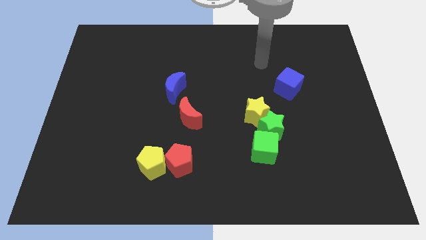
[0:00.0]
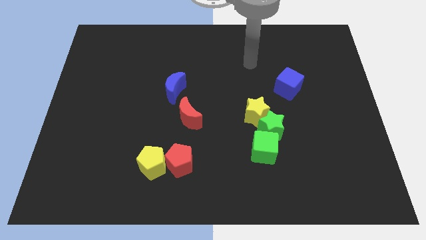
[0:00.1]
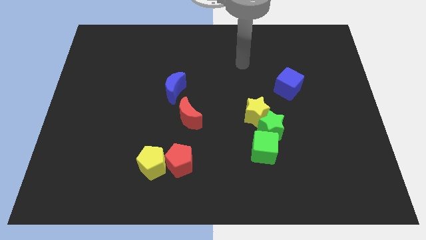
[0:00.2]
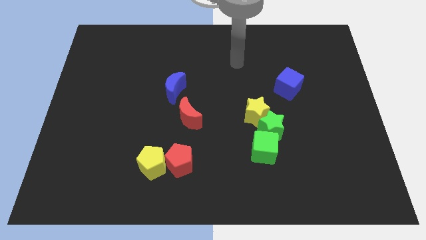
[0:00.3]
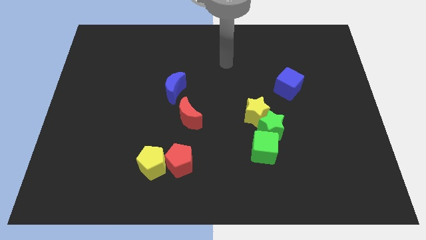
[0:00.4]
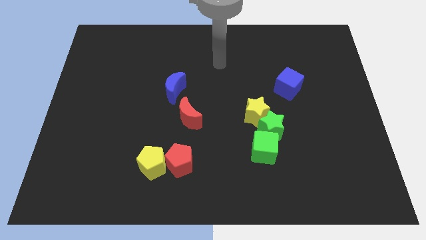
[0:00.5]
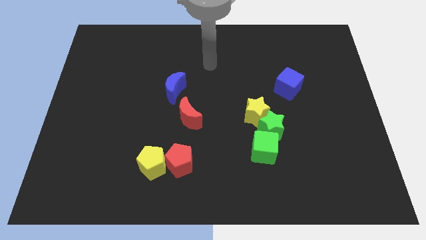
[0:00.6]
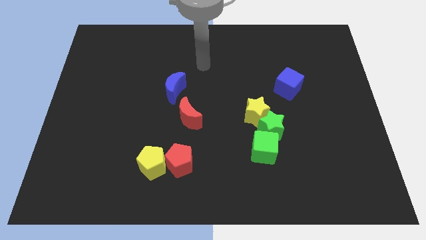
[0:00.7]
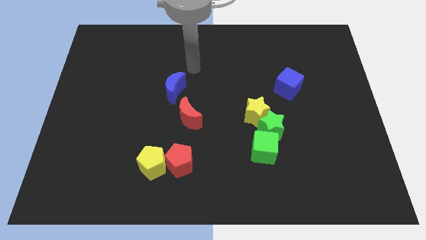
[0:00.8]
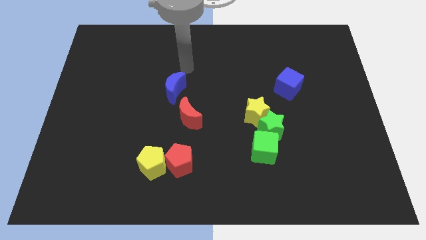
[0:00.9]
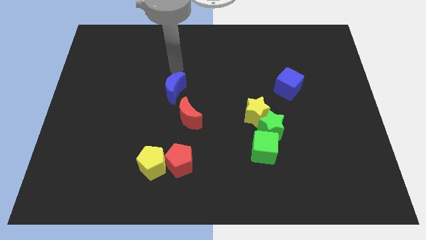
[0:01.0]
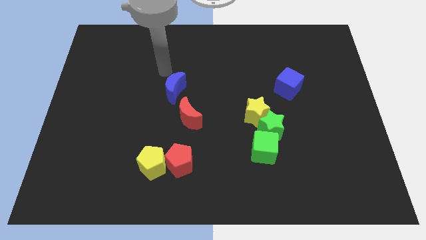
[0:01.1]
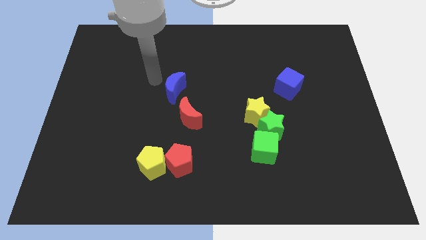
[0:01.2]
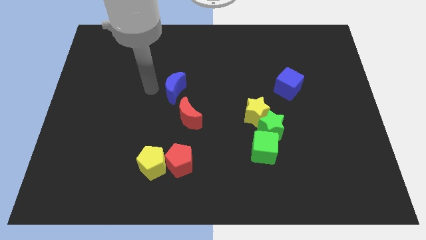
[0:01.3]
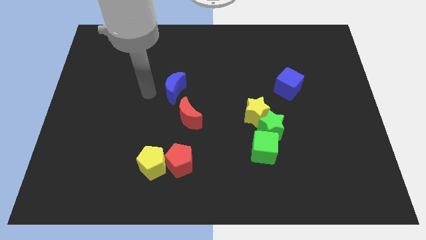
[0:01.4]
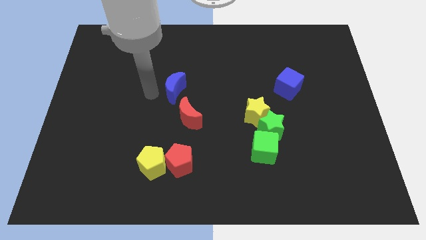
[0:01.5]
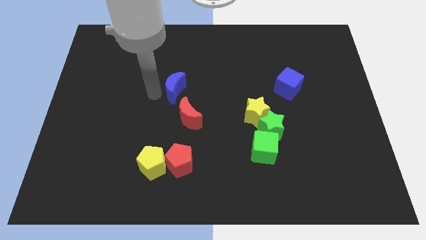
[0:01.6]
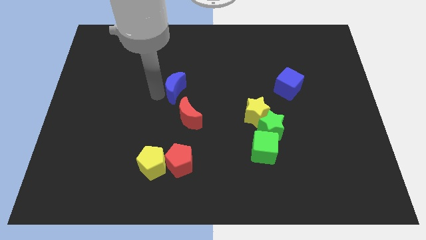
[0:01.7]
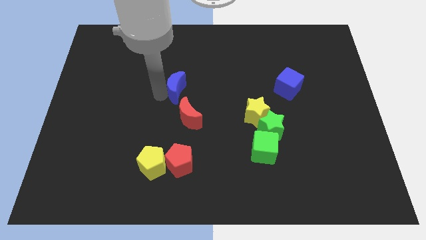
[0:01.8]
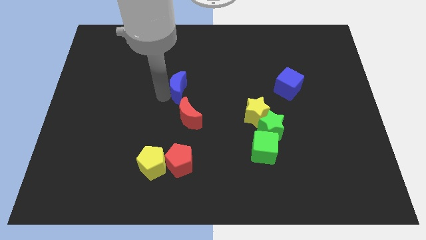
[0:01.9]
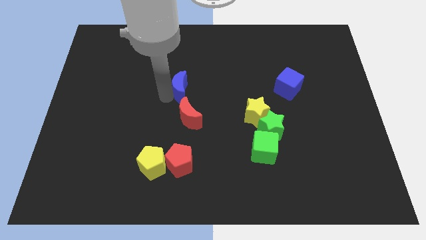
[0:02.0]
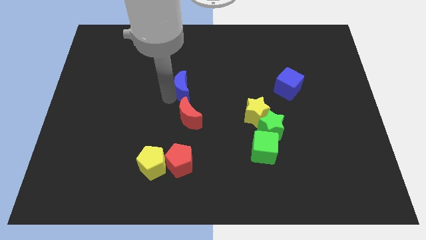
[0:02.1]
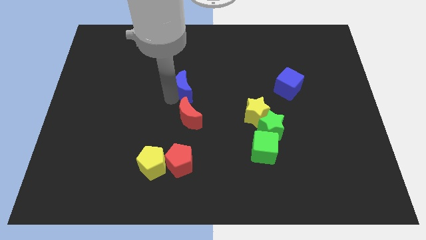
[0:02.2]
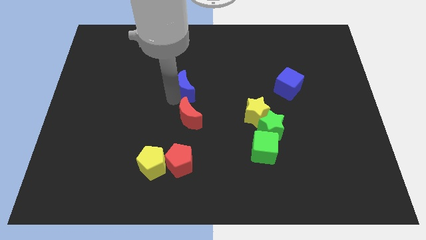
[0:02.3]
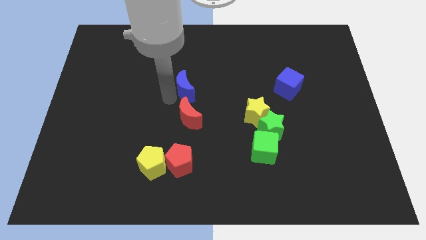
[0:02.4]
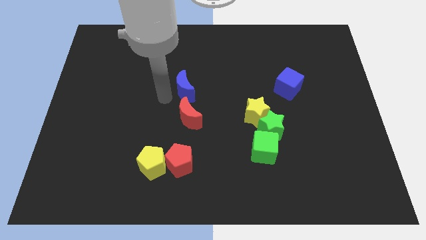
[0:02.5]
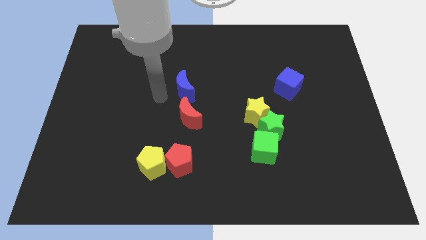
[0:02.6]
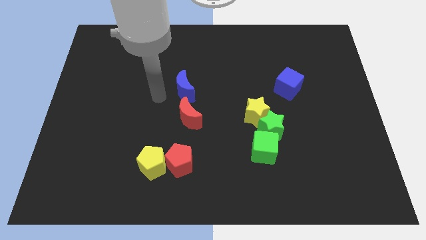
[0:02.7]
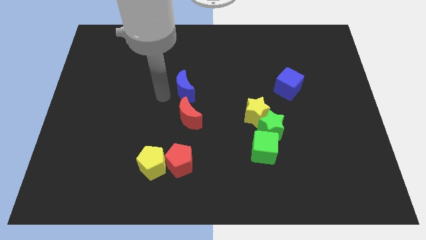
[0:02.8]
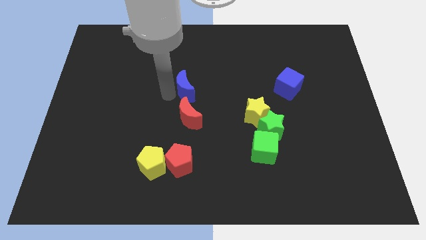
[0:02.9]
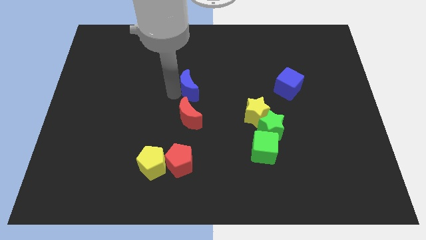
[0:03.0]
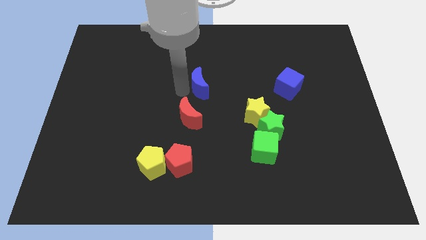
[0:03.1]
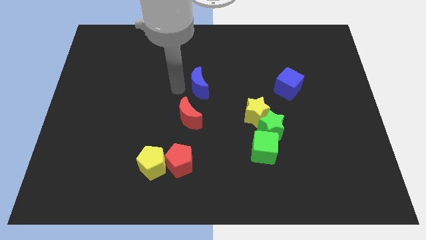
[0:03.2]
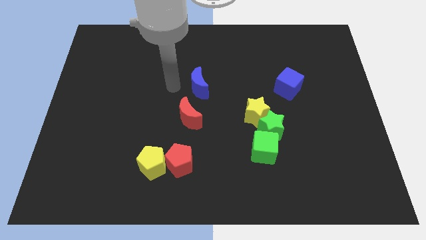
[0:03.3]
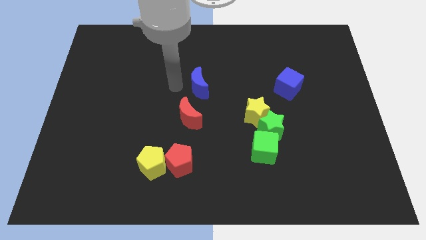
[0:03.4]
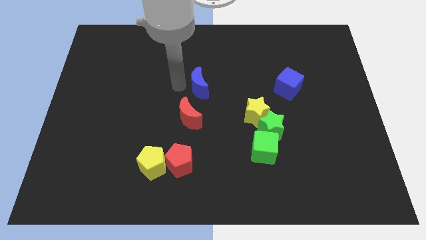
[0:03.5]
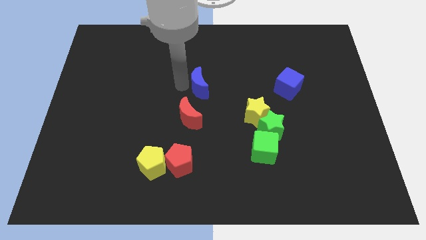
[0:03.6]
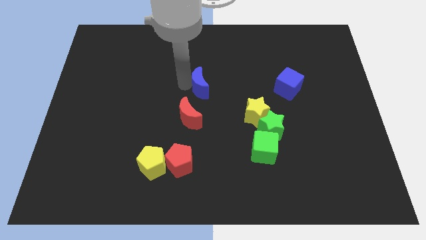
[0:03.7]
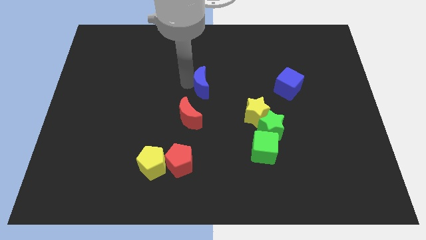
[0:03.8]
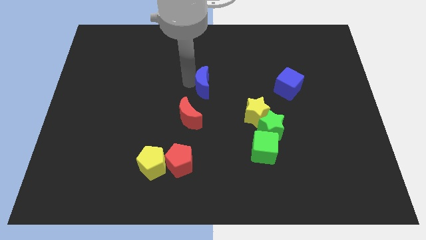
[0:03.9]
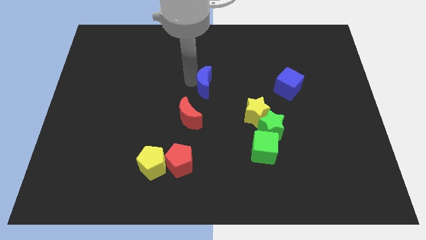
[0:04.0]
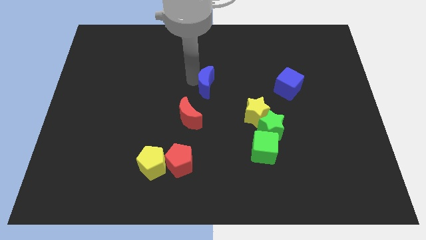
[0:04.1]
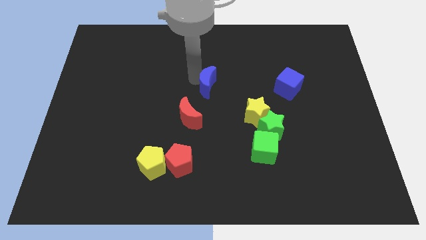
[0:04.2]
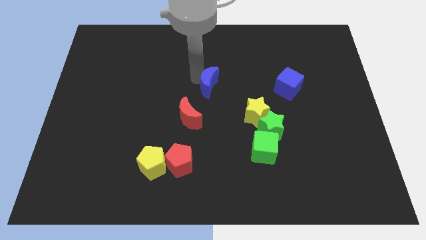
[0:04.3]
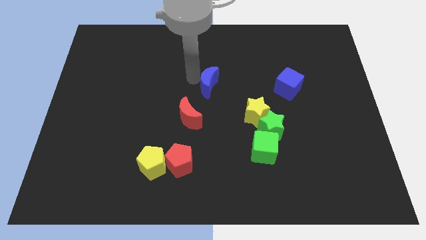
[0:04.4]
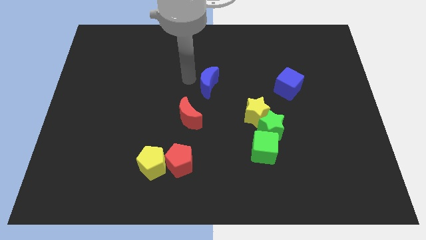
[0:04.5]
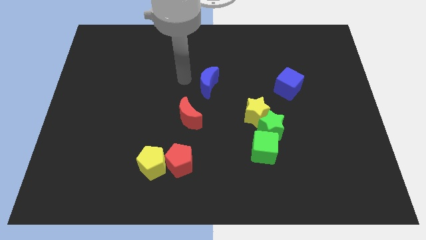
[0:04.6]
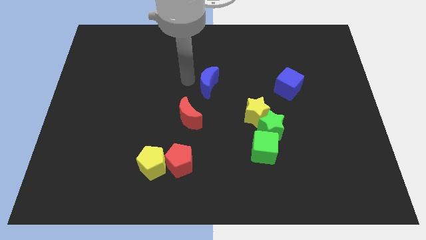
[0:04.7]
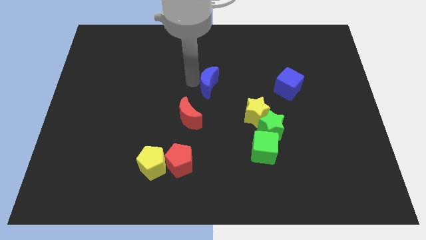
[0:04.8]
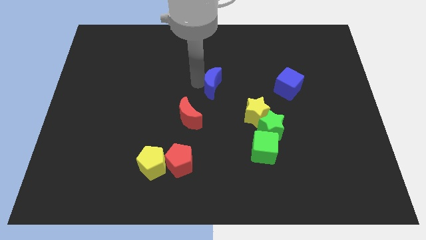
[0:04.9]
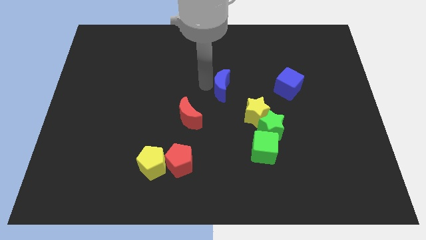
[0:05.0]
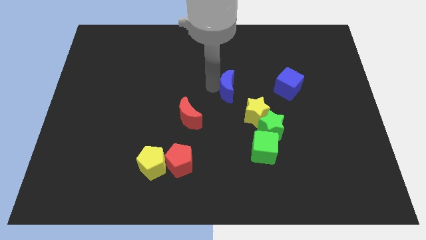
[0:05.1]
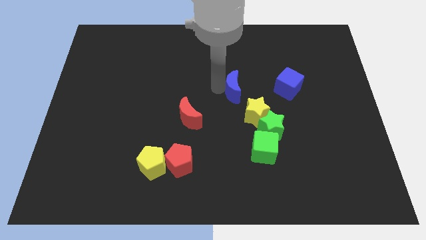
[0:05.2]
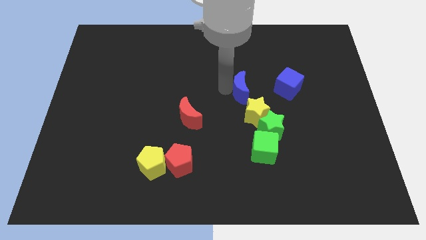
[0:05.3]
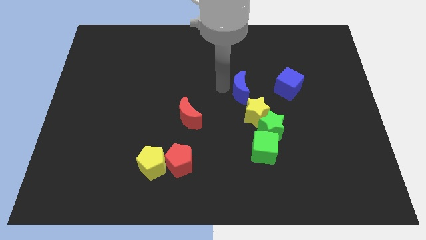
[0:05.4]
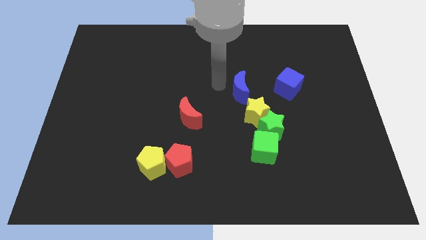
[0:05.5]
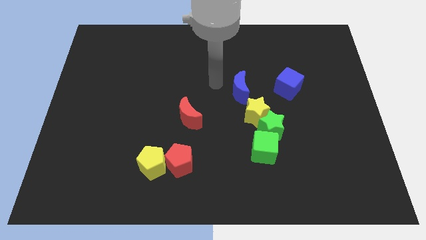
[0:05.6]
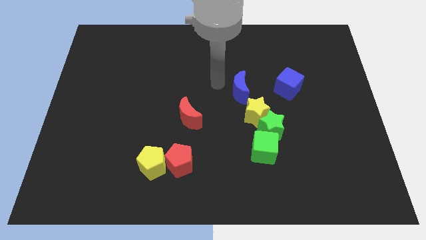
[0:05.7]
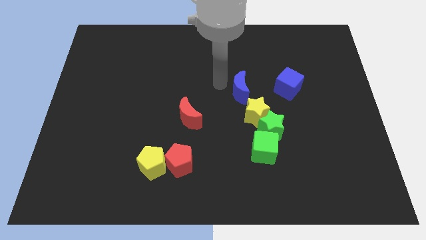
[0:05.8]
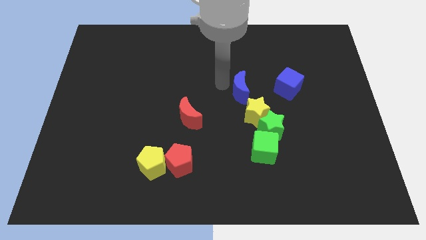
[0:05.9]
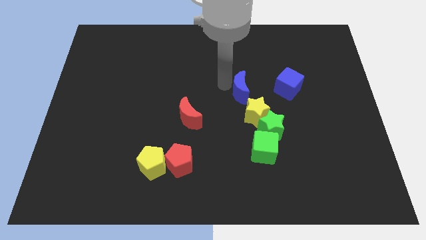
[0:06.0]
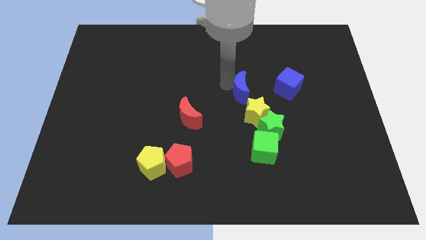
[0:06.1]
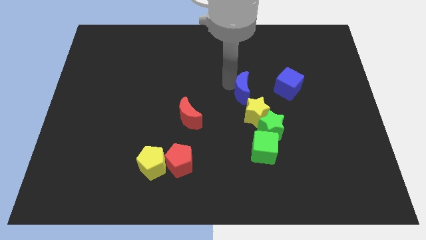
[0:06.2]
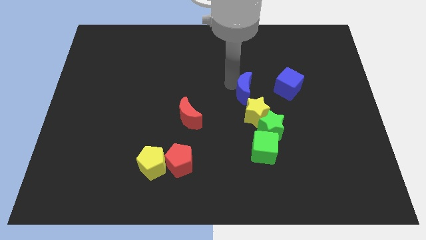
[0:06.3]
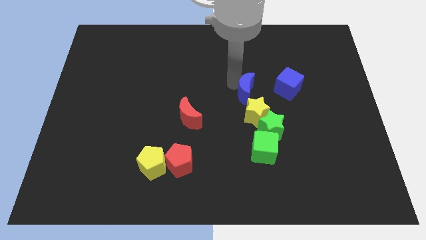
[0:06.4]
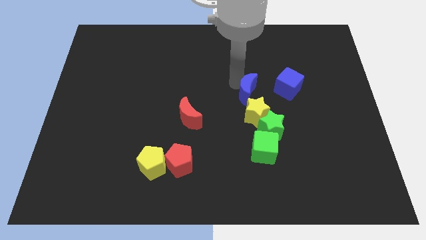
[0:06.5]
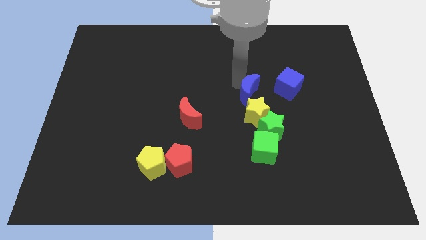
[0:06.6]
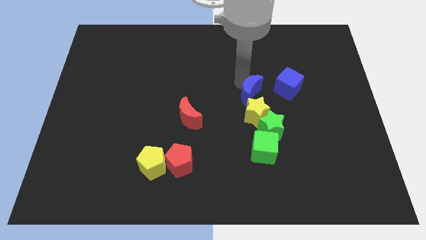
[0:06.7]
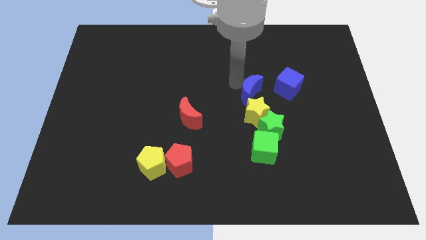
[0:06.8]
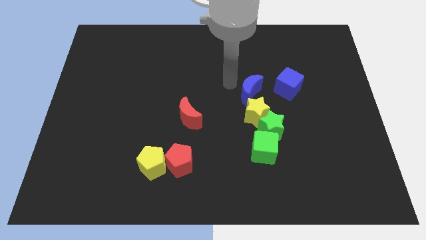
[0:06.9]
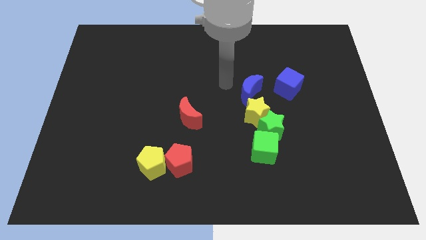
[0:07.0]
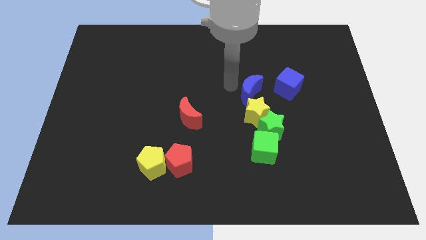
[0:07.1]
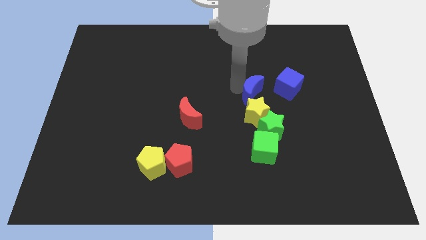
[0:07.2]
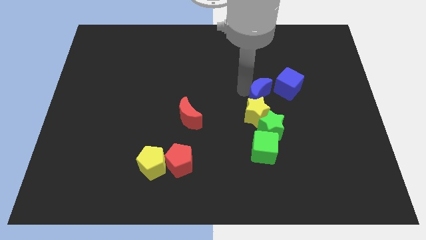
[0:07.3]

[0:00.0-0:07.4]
move the blue moon to the right

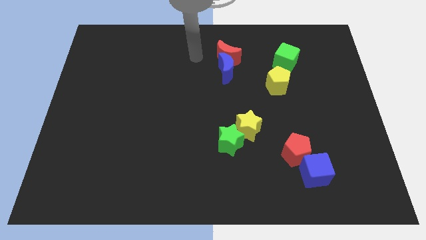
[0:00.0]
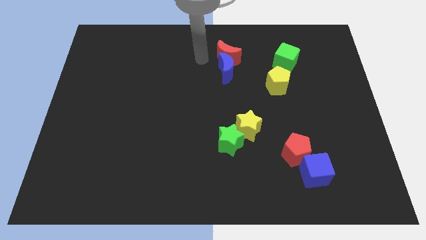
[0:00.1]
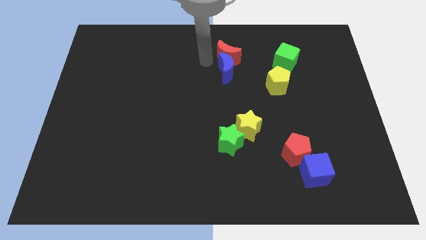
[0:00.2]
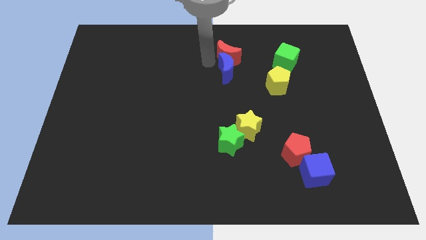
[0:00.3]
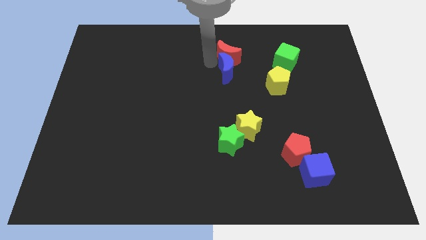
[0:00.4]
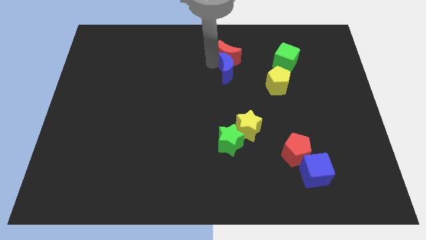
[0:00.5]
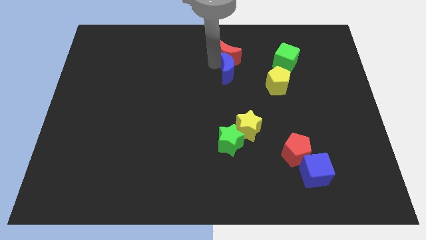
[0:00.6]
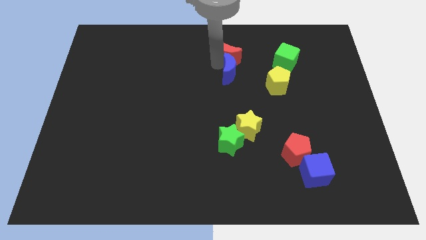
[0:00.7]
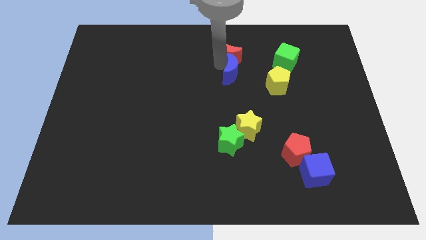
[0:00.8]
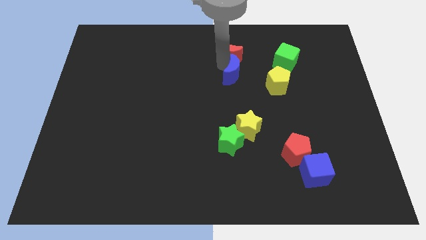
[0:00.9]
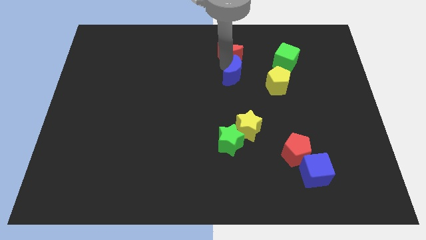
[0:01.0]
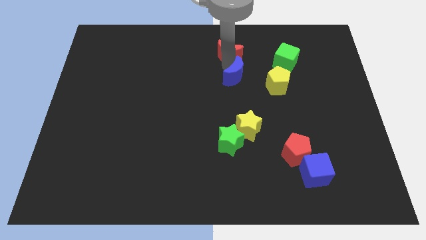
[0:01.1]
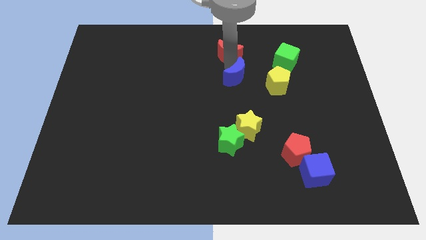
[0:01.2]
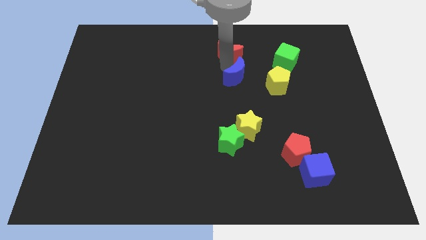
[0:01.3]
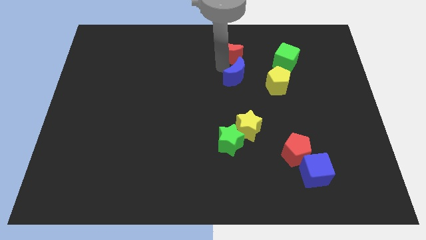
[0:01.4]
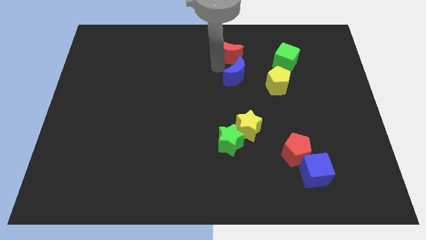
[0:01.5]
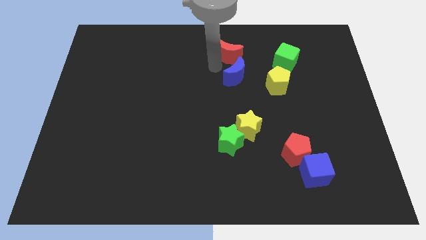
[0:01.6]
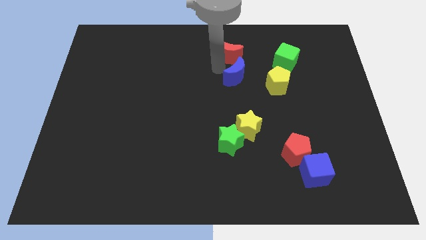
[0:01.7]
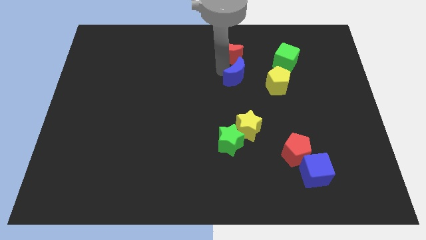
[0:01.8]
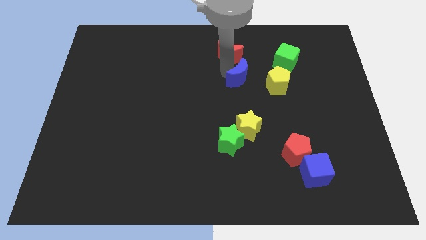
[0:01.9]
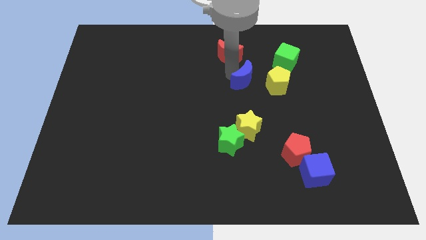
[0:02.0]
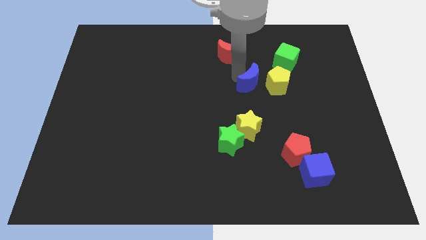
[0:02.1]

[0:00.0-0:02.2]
slightly slide the blue moon down and to the right diagonally
